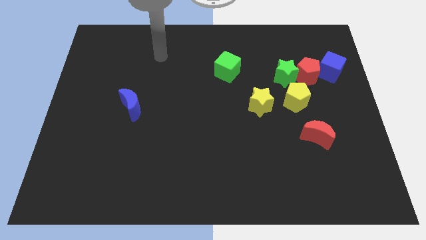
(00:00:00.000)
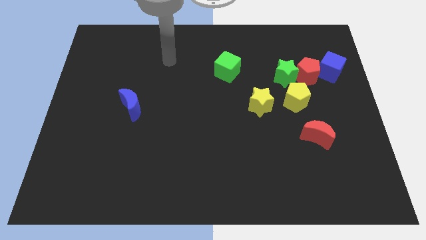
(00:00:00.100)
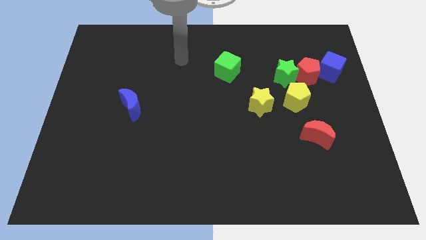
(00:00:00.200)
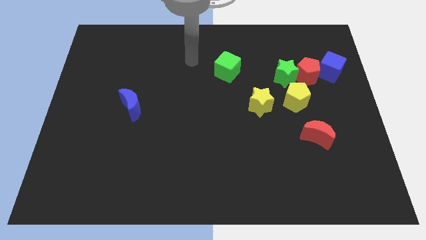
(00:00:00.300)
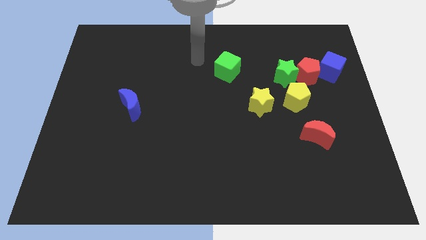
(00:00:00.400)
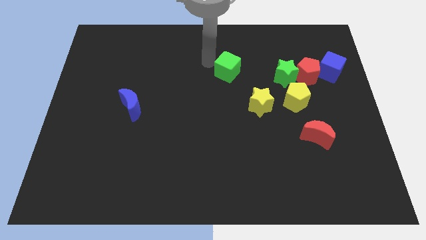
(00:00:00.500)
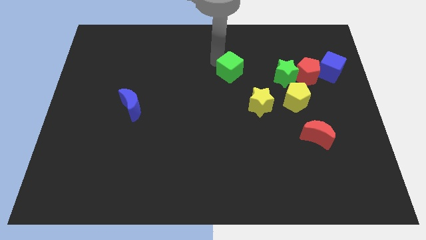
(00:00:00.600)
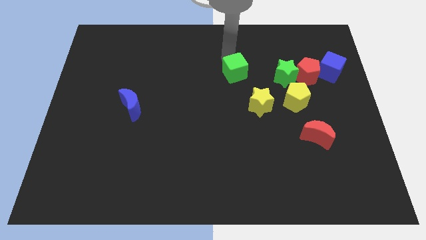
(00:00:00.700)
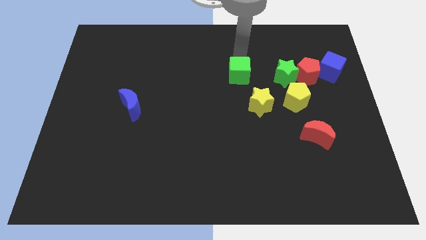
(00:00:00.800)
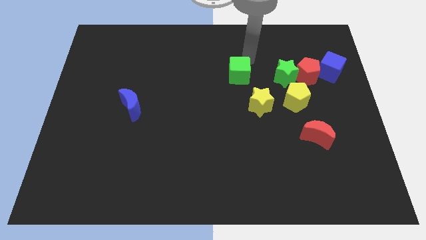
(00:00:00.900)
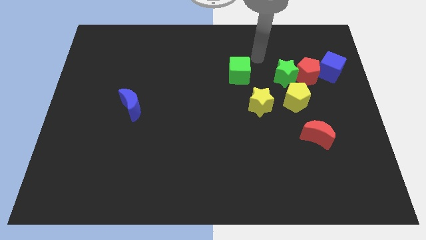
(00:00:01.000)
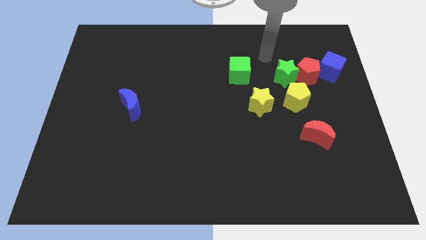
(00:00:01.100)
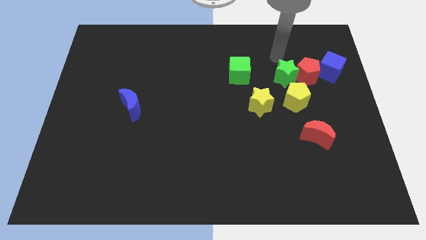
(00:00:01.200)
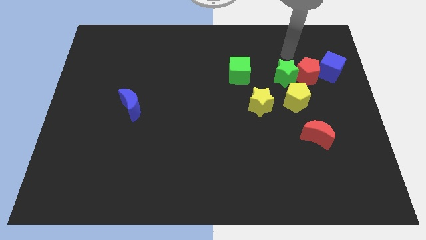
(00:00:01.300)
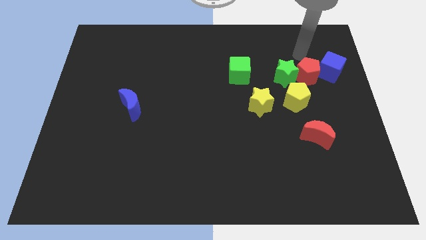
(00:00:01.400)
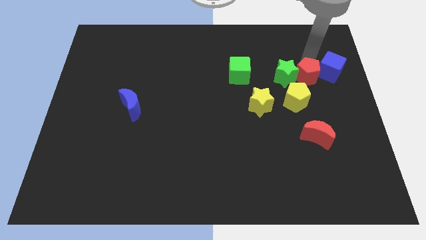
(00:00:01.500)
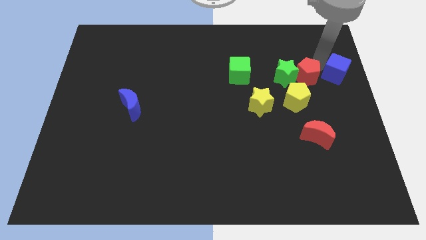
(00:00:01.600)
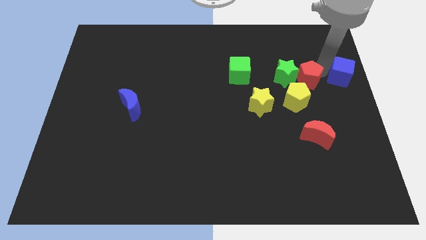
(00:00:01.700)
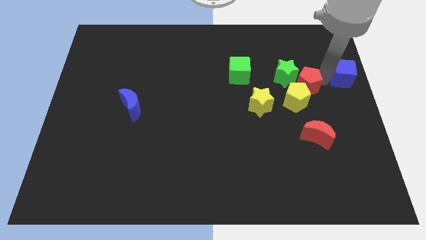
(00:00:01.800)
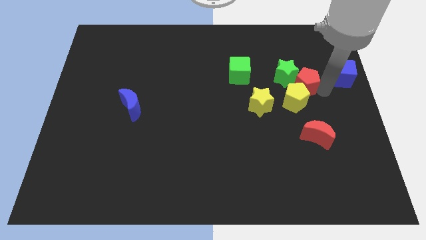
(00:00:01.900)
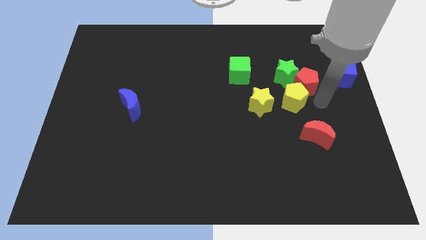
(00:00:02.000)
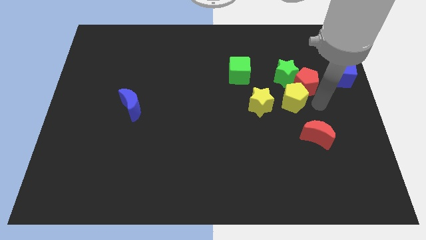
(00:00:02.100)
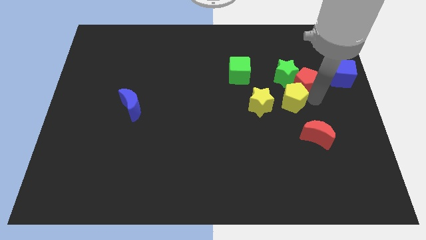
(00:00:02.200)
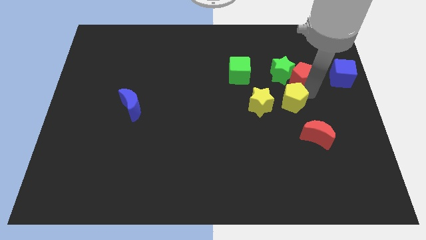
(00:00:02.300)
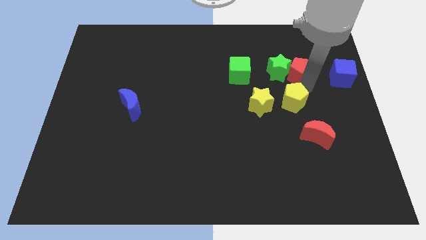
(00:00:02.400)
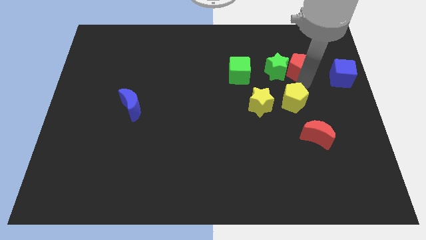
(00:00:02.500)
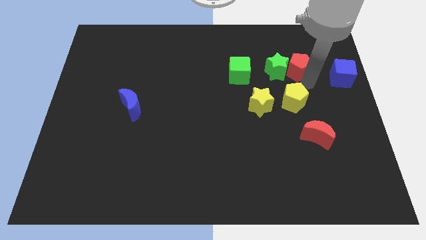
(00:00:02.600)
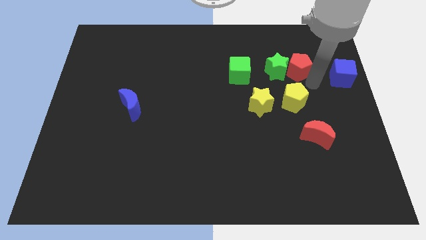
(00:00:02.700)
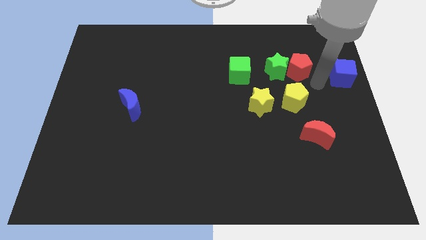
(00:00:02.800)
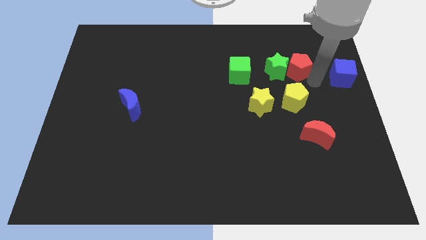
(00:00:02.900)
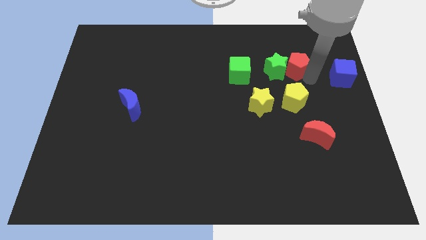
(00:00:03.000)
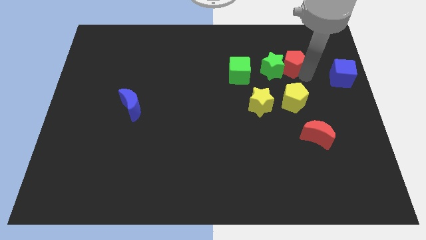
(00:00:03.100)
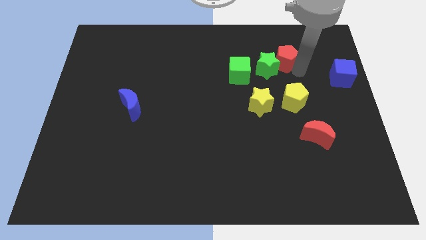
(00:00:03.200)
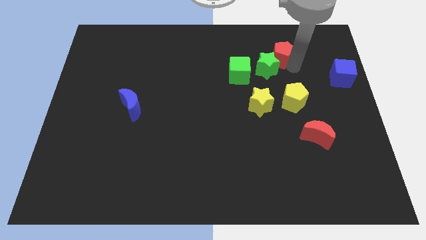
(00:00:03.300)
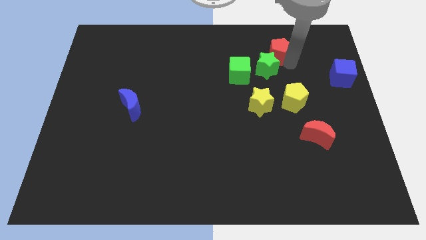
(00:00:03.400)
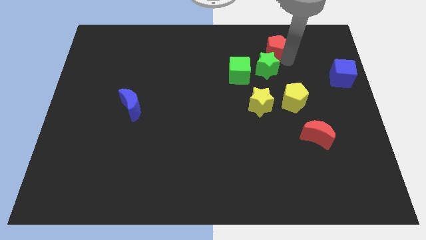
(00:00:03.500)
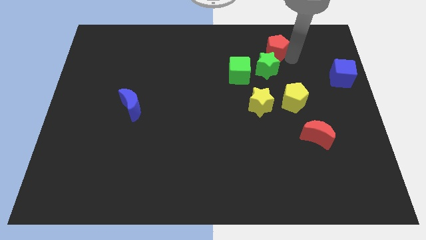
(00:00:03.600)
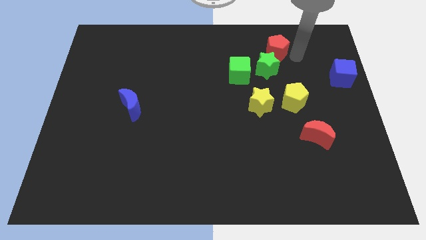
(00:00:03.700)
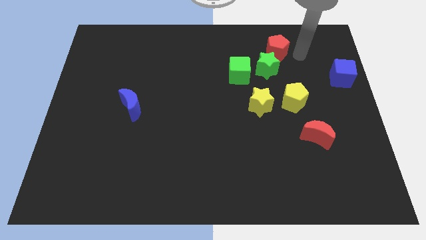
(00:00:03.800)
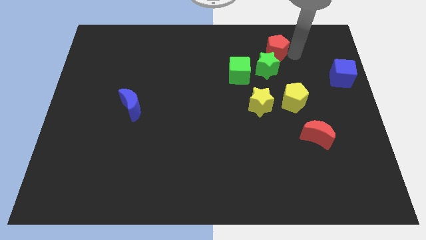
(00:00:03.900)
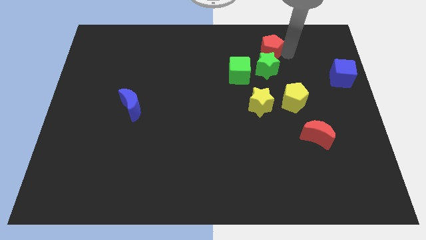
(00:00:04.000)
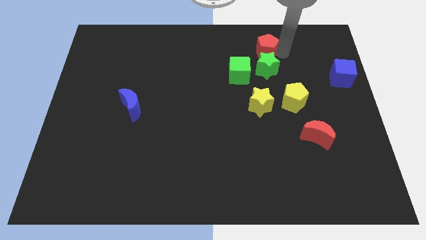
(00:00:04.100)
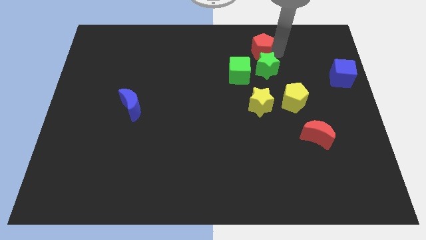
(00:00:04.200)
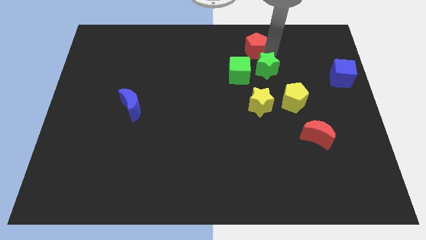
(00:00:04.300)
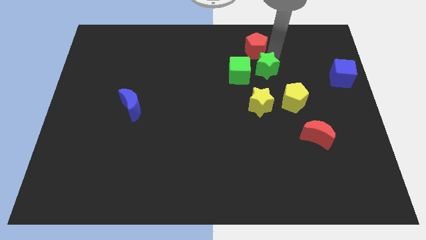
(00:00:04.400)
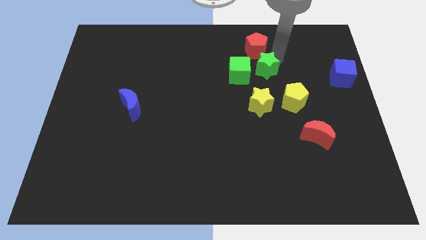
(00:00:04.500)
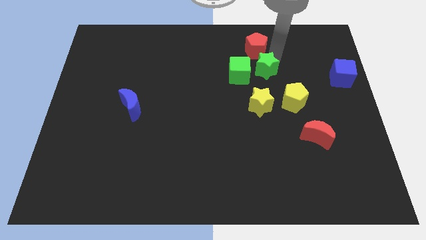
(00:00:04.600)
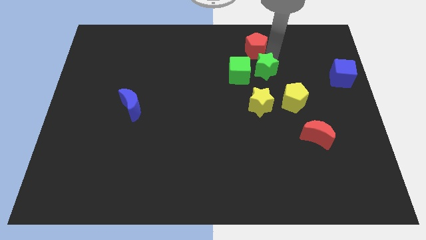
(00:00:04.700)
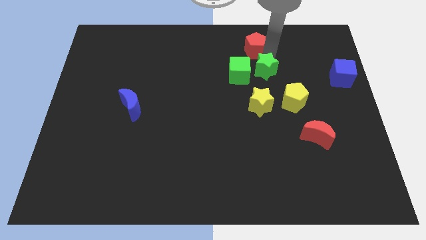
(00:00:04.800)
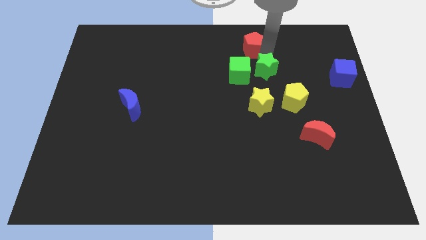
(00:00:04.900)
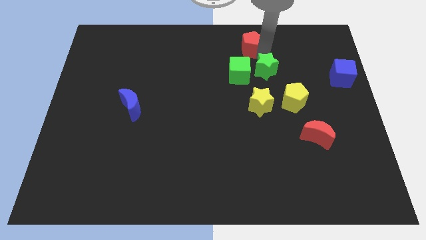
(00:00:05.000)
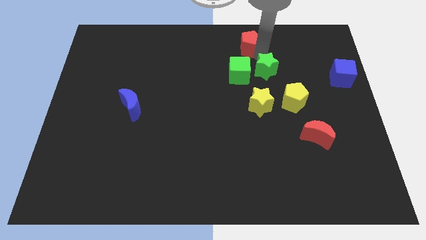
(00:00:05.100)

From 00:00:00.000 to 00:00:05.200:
push the red pentagon to the top
